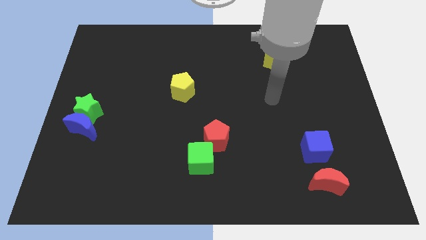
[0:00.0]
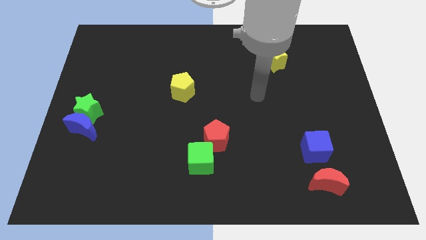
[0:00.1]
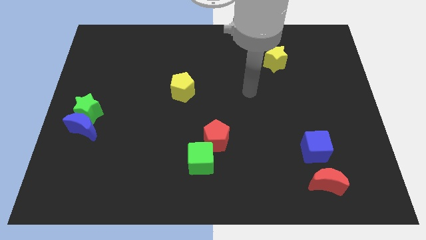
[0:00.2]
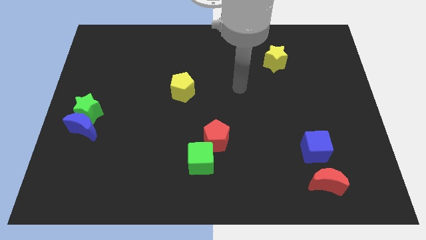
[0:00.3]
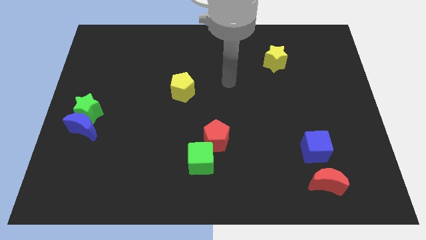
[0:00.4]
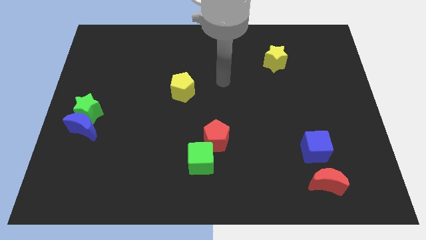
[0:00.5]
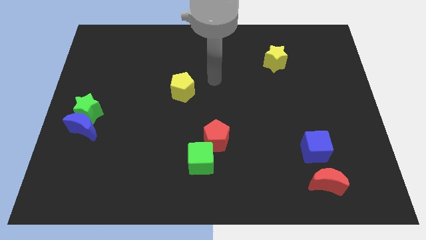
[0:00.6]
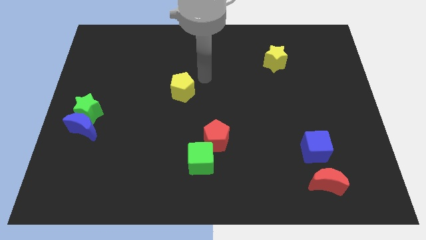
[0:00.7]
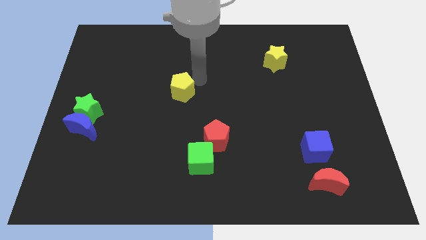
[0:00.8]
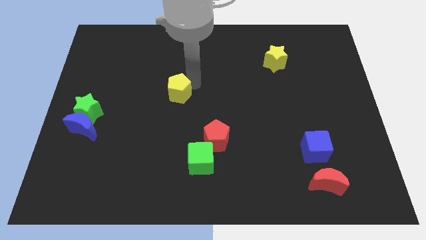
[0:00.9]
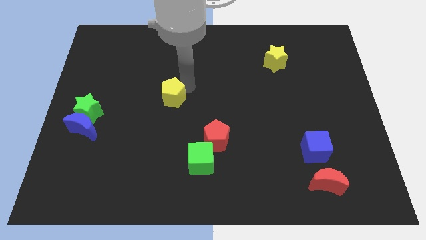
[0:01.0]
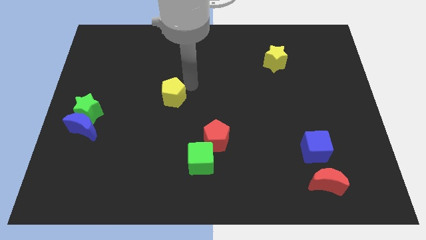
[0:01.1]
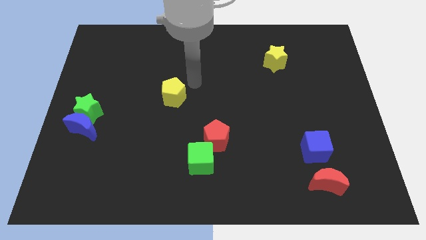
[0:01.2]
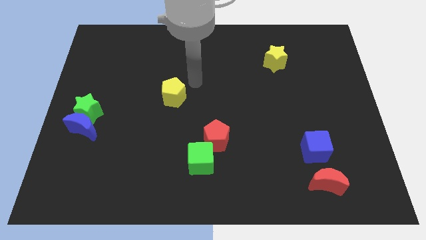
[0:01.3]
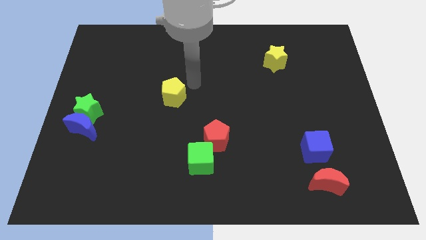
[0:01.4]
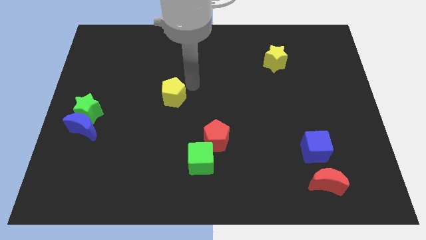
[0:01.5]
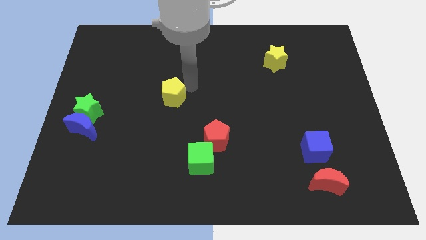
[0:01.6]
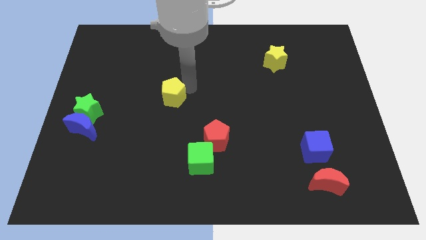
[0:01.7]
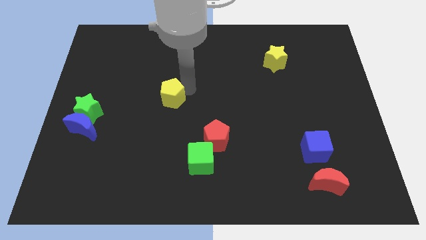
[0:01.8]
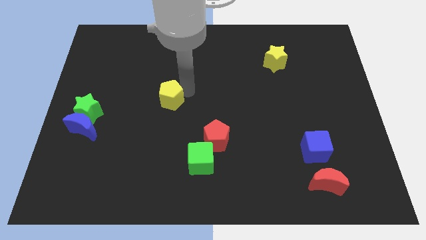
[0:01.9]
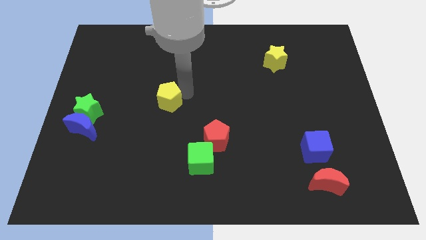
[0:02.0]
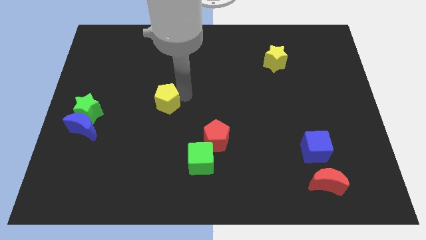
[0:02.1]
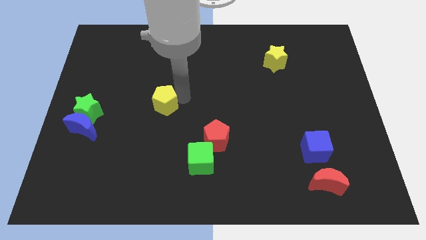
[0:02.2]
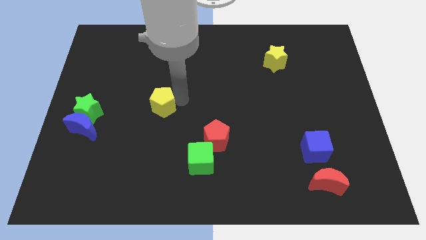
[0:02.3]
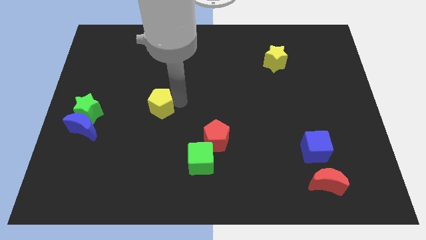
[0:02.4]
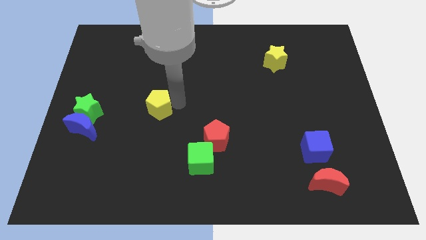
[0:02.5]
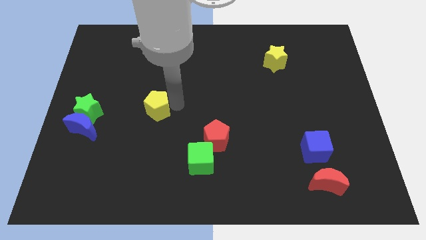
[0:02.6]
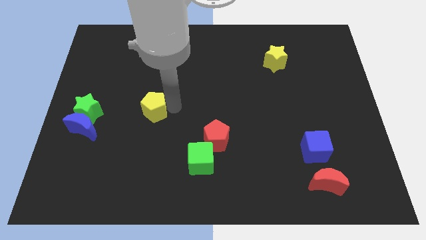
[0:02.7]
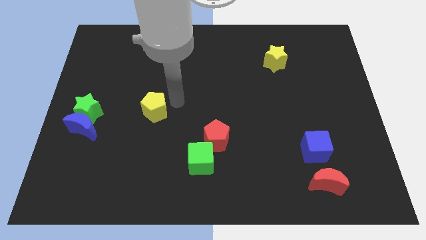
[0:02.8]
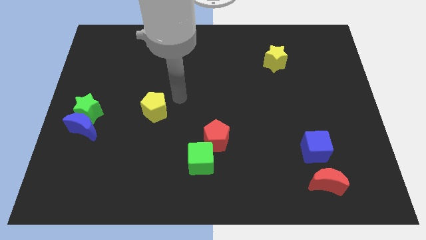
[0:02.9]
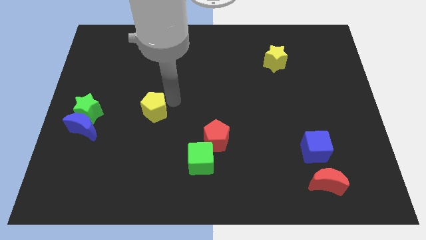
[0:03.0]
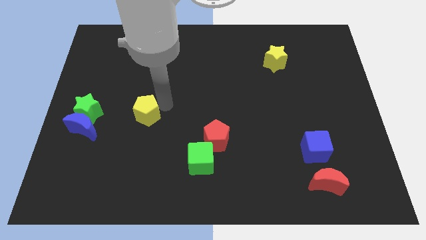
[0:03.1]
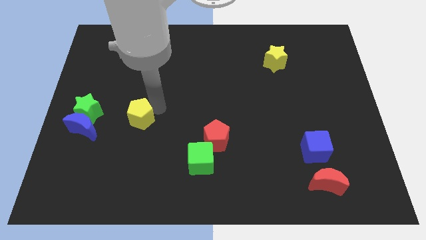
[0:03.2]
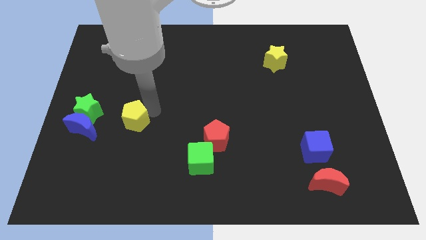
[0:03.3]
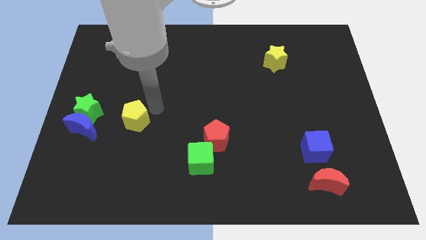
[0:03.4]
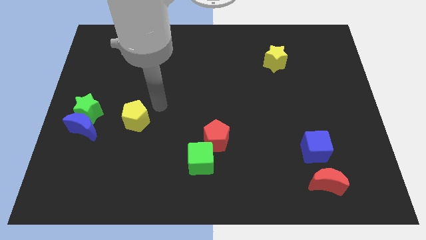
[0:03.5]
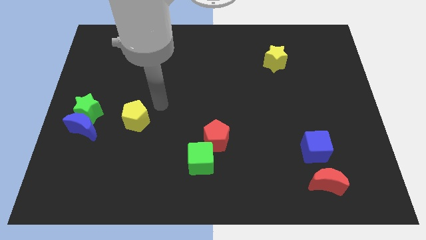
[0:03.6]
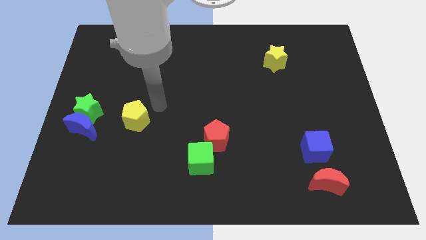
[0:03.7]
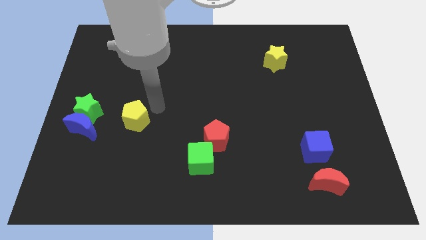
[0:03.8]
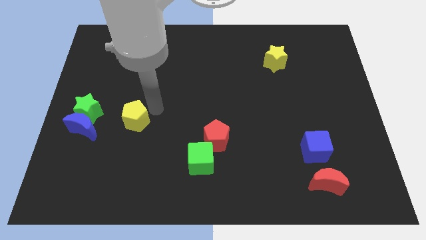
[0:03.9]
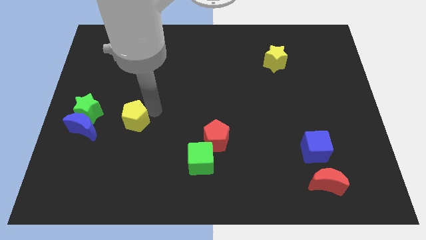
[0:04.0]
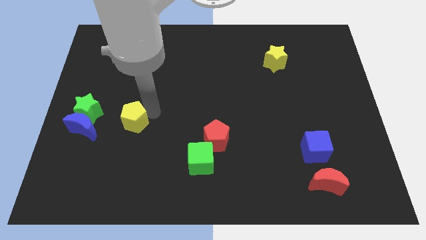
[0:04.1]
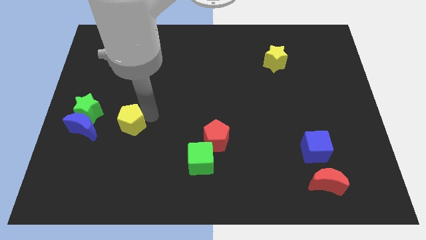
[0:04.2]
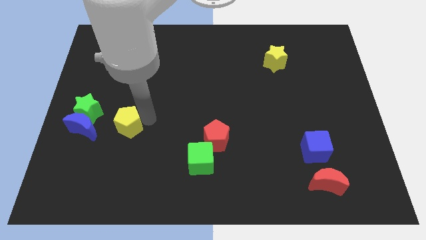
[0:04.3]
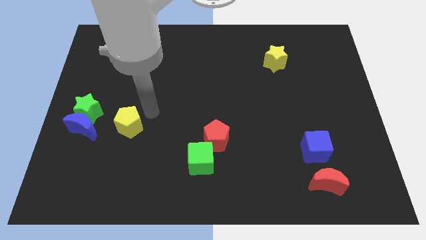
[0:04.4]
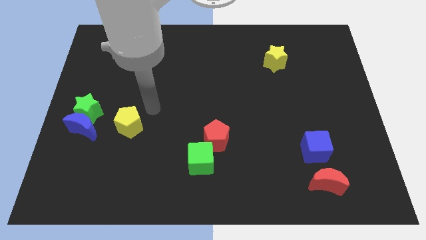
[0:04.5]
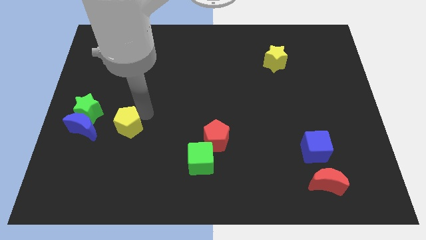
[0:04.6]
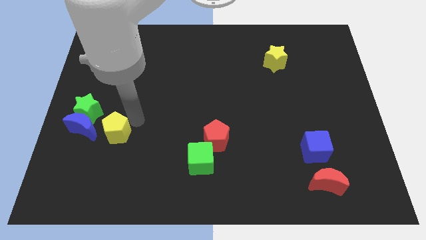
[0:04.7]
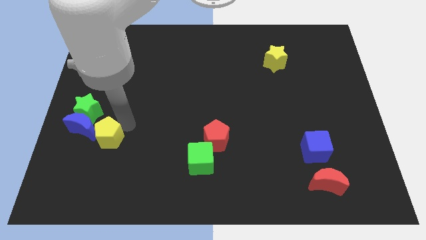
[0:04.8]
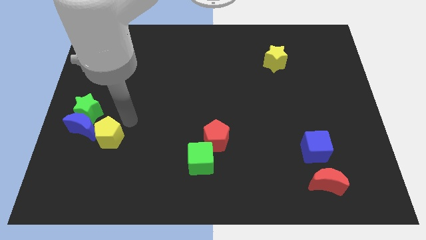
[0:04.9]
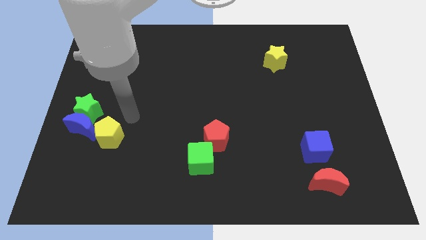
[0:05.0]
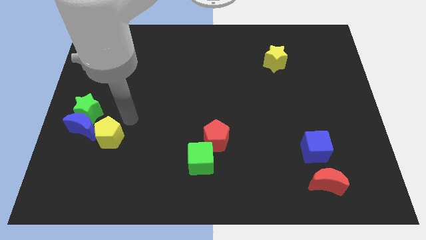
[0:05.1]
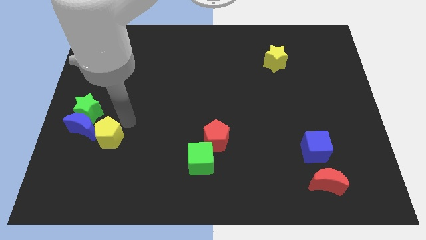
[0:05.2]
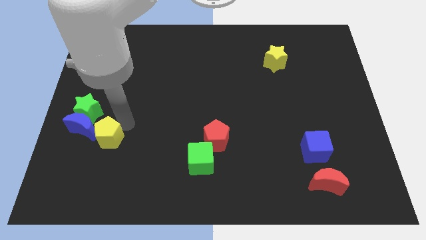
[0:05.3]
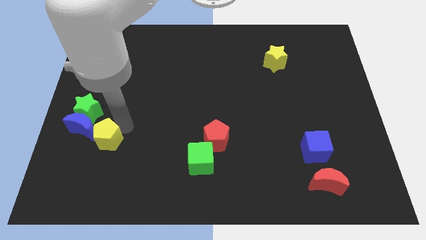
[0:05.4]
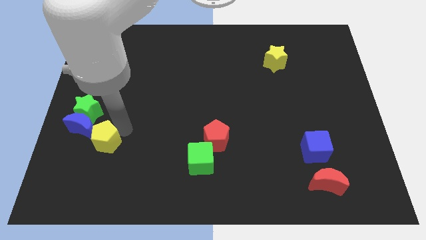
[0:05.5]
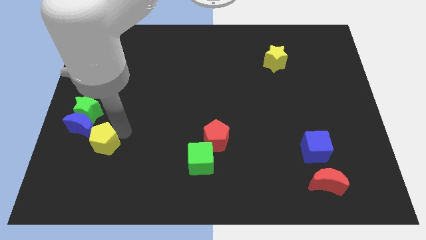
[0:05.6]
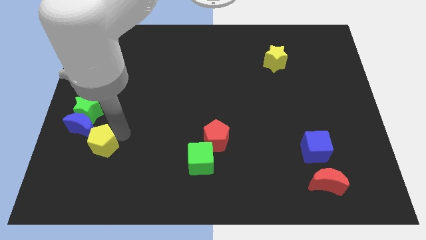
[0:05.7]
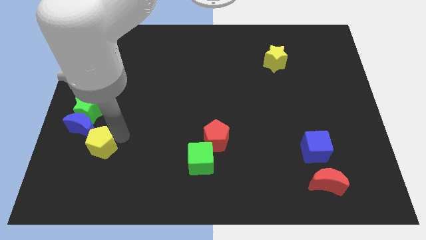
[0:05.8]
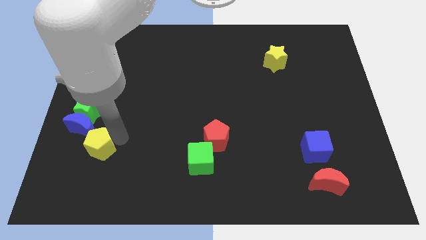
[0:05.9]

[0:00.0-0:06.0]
push the yellow pentagon below the blue moon
